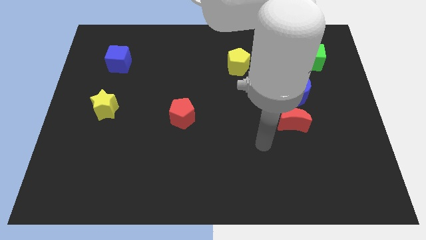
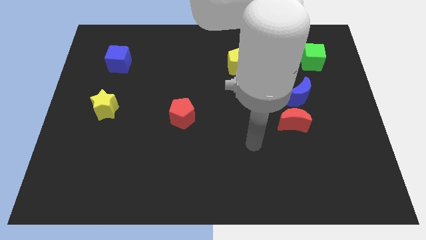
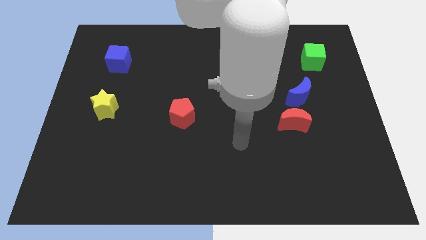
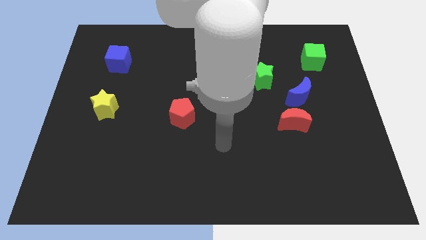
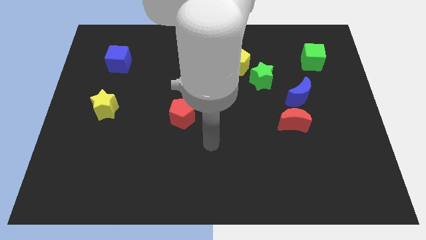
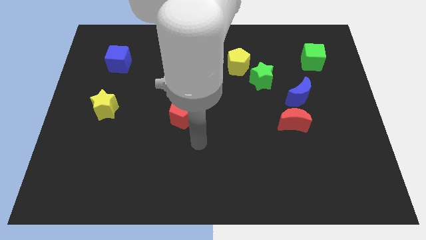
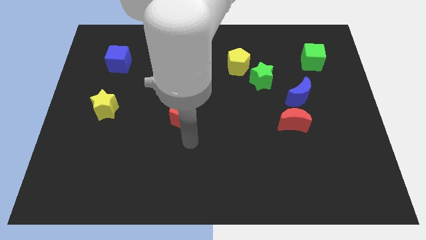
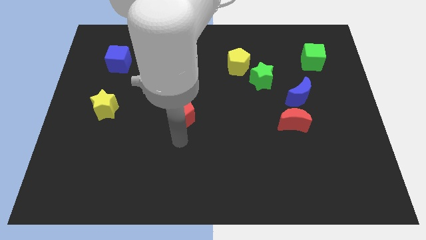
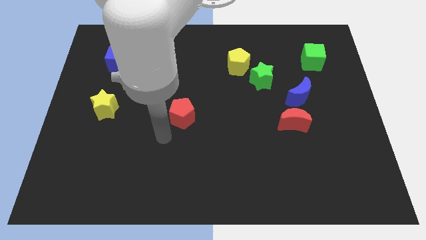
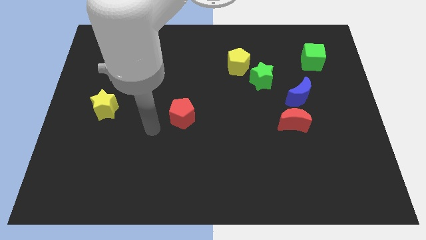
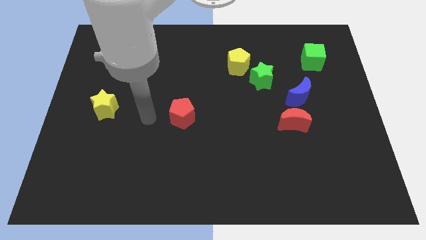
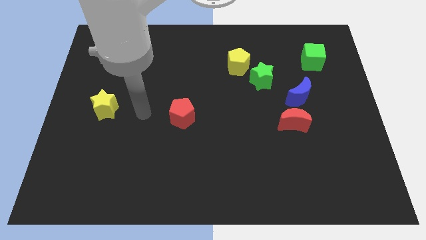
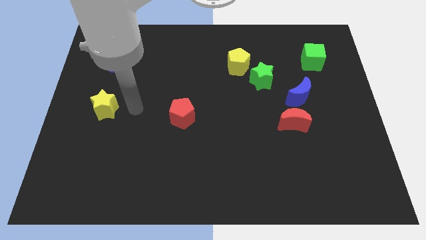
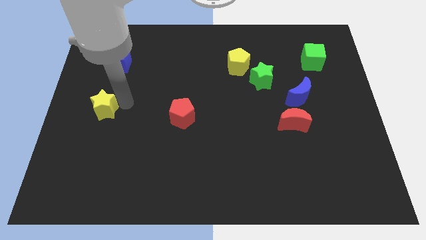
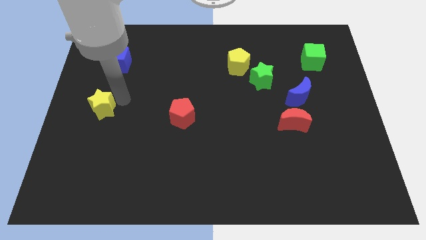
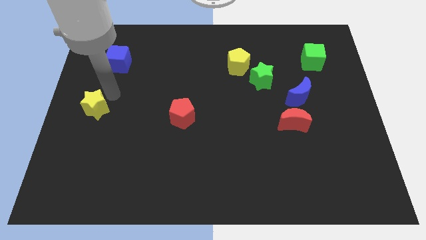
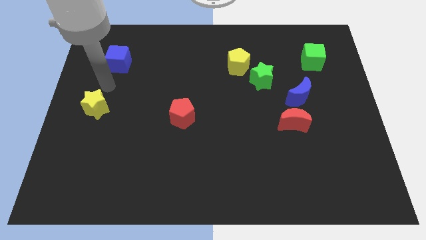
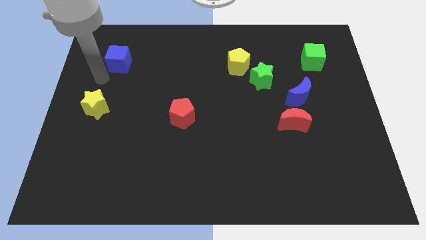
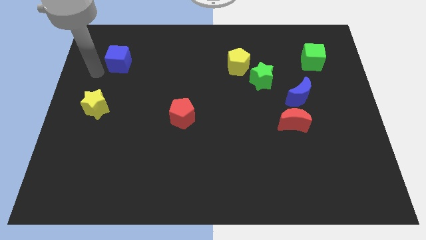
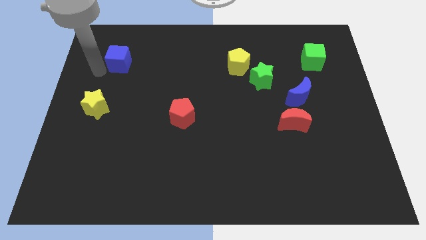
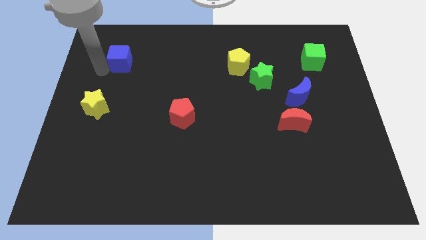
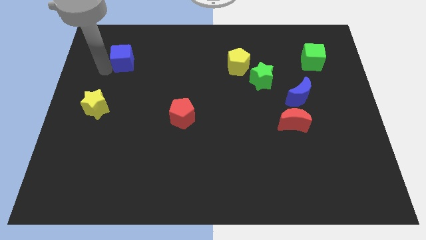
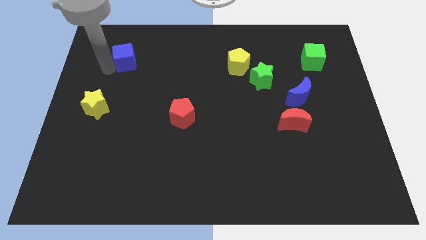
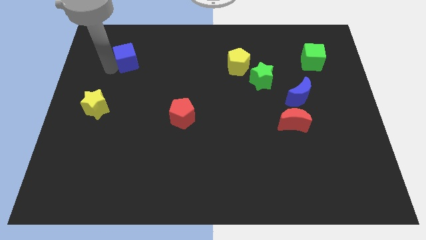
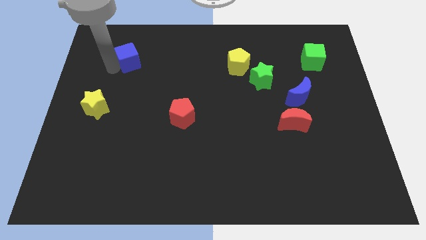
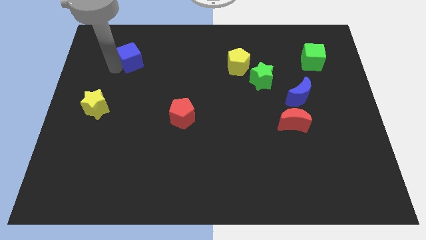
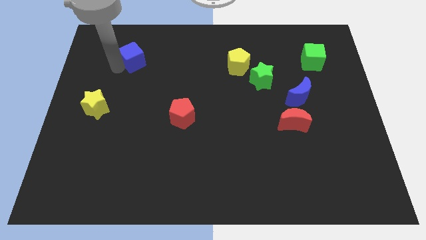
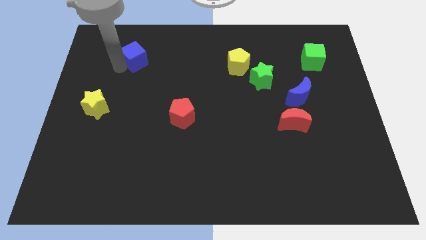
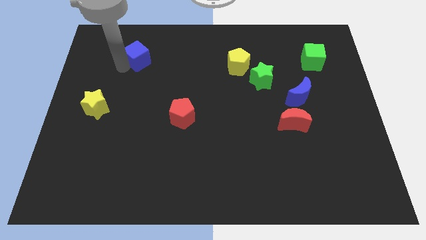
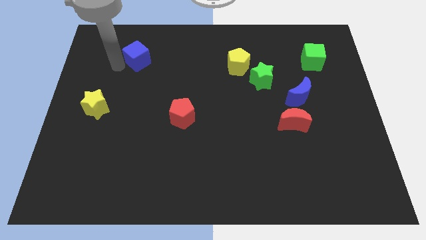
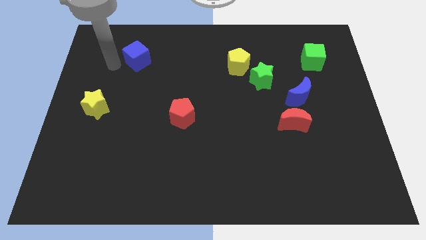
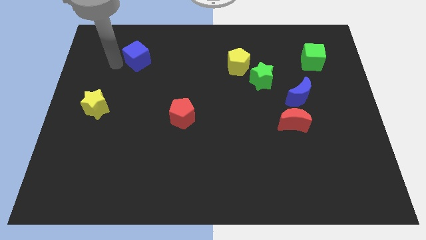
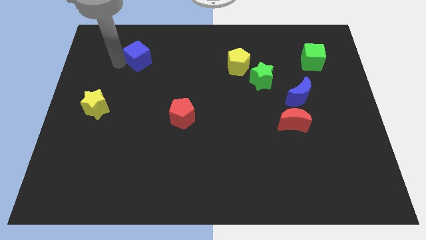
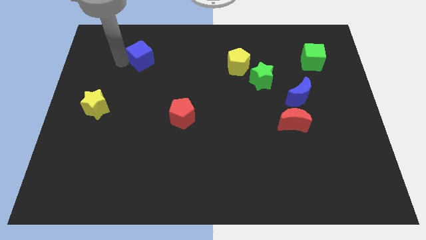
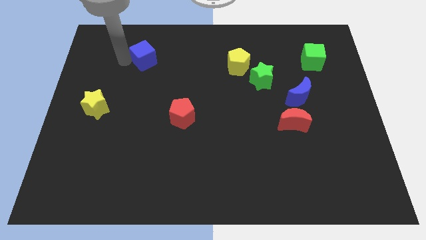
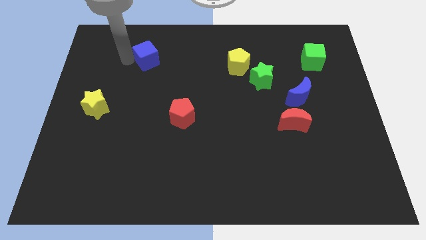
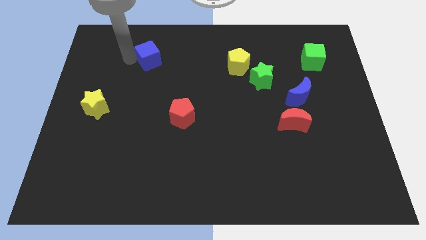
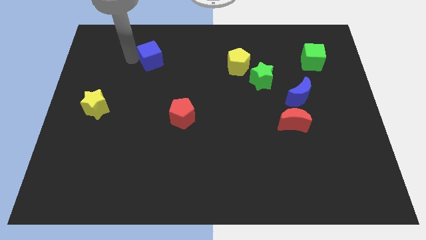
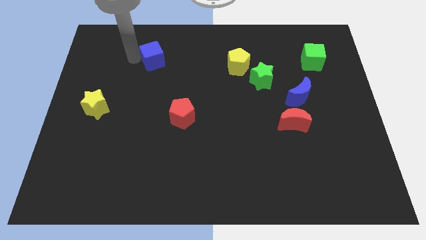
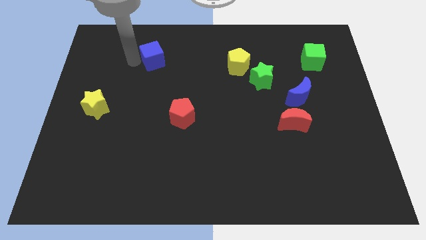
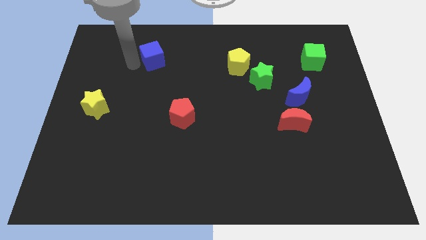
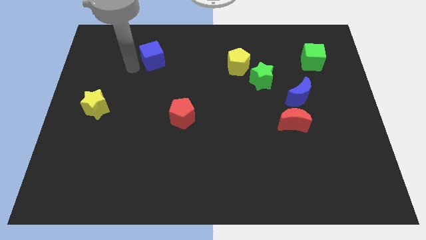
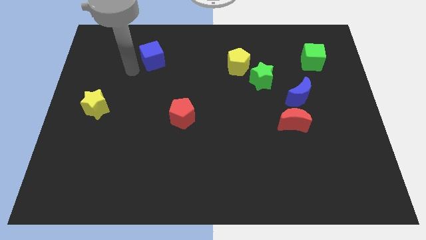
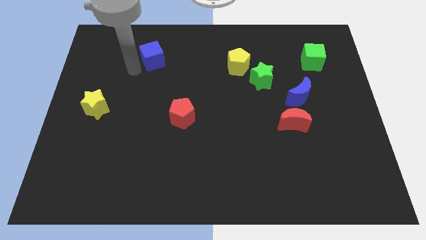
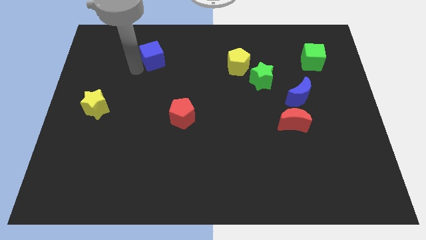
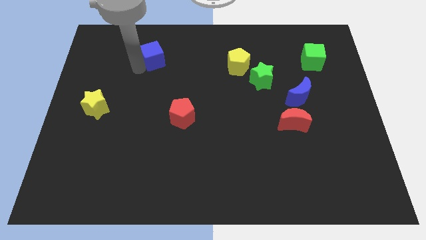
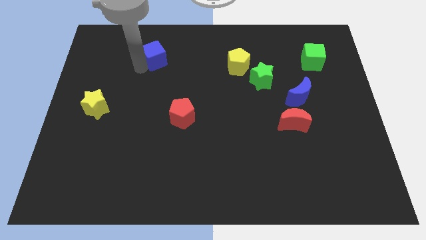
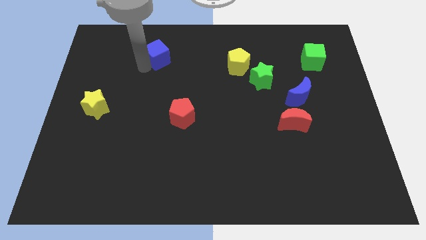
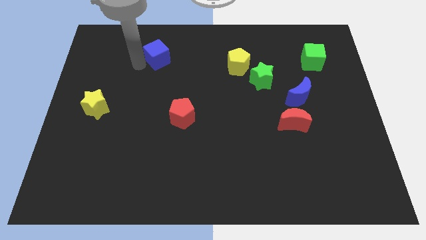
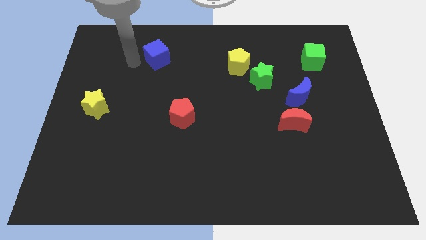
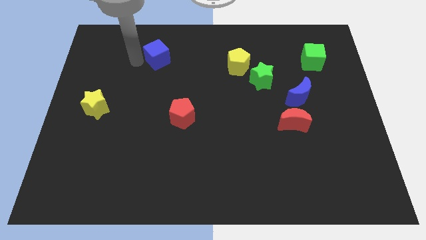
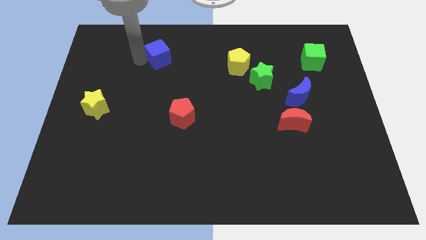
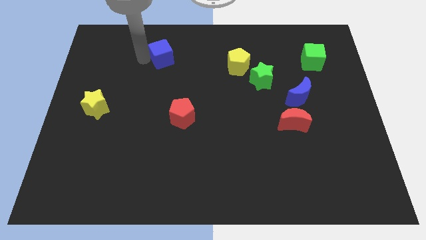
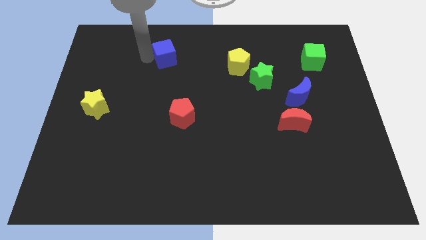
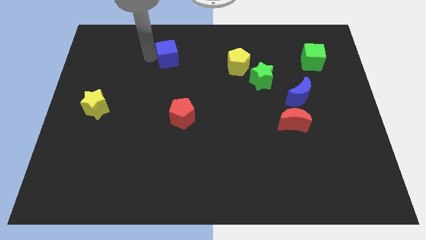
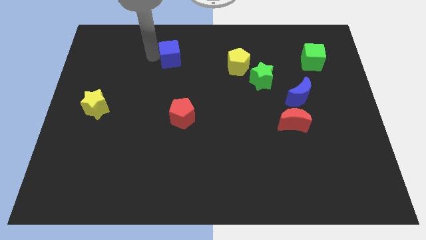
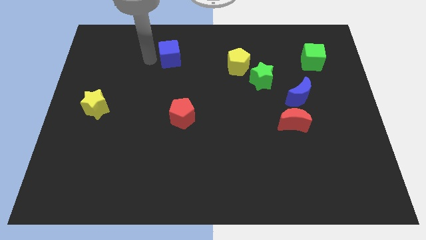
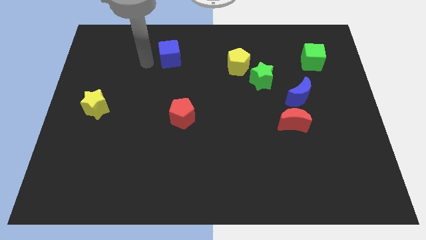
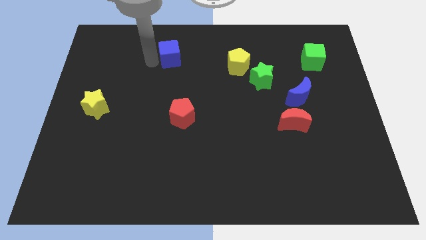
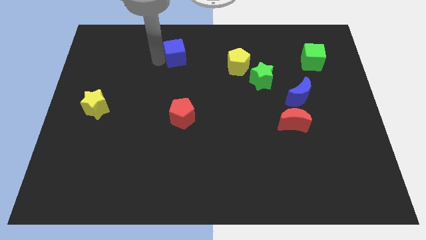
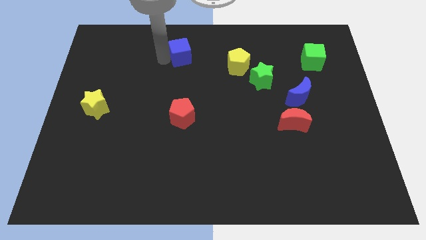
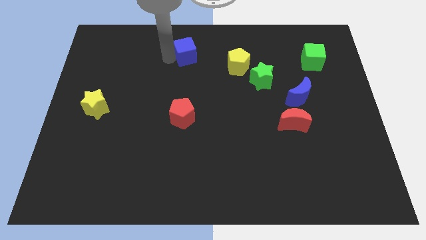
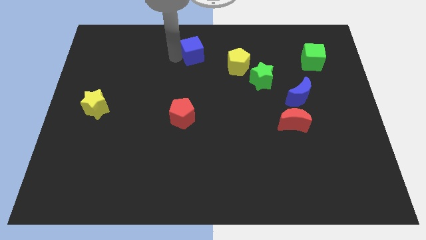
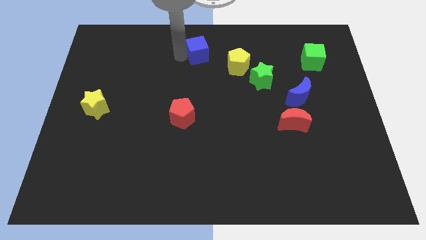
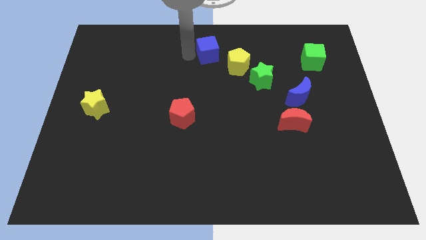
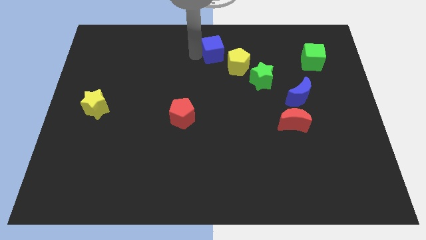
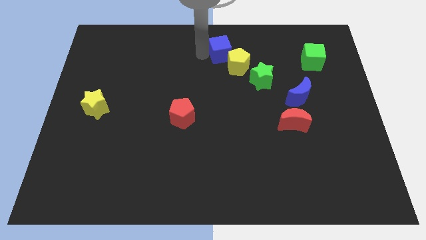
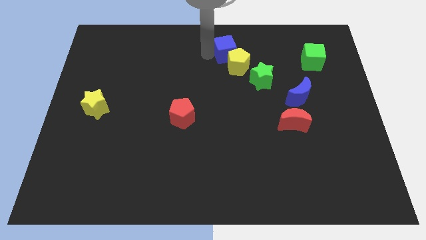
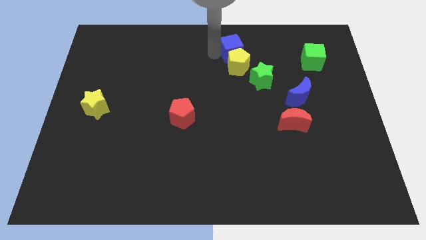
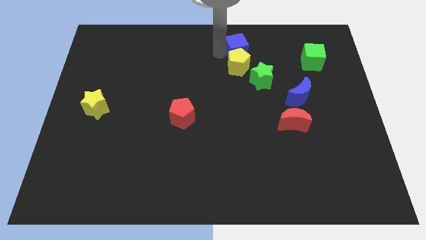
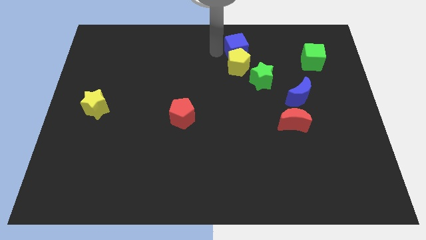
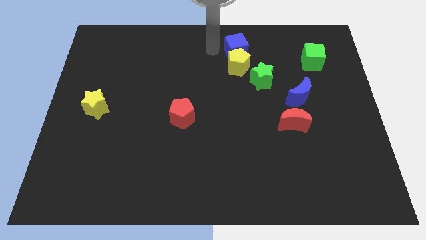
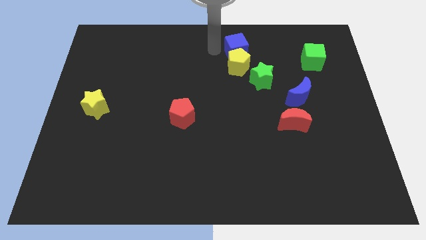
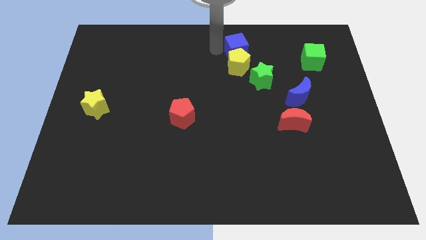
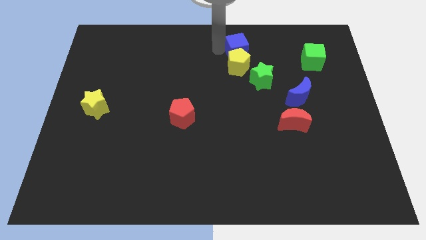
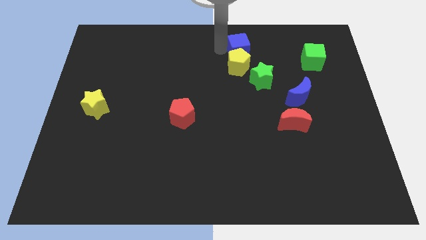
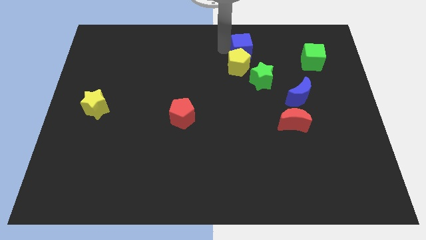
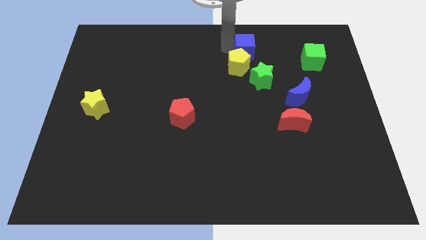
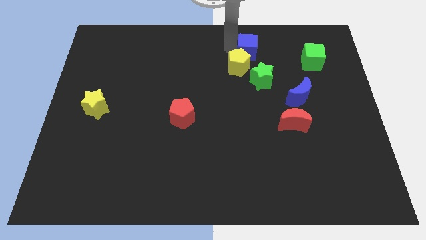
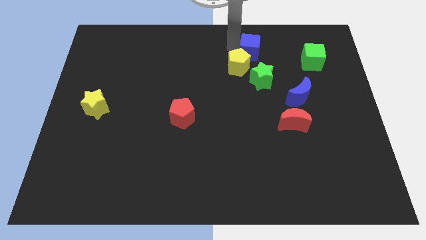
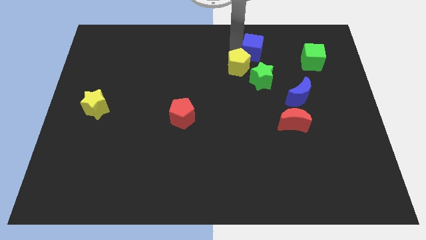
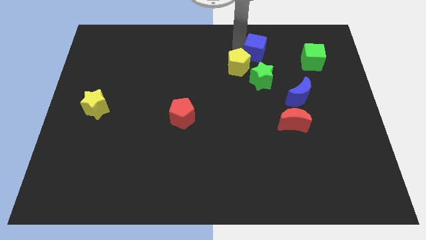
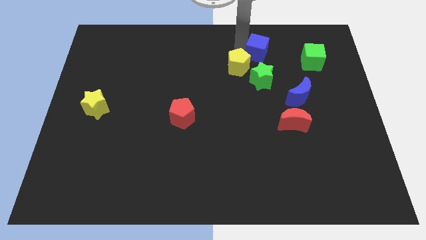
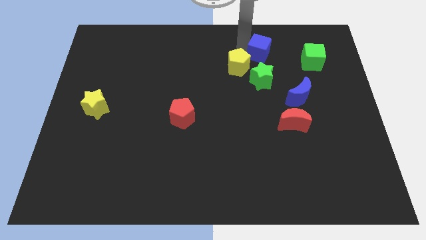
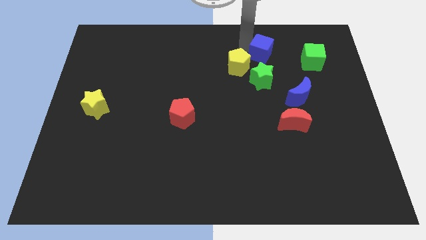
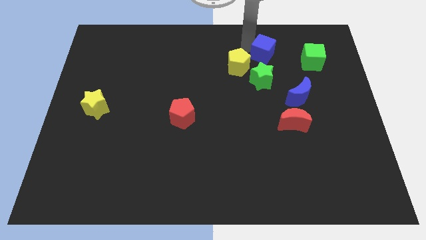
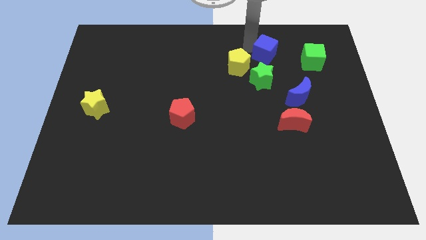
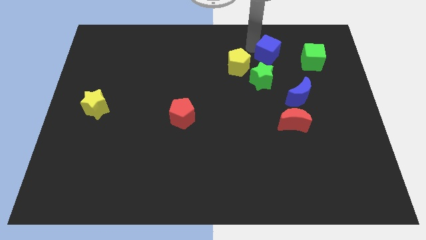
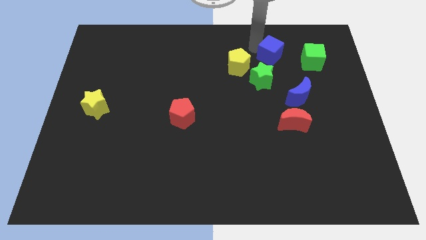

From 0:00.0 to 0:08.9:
push the blue cube diagonally up and to the right of the green star
